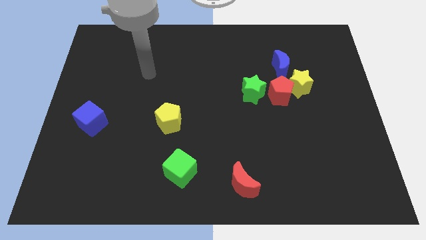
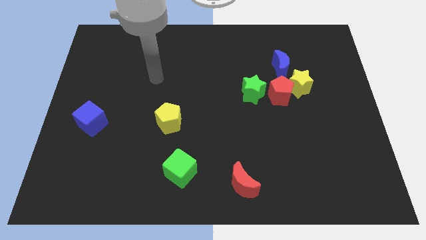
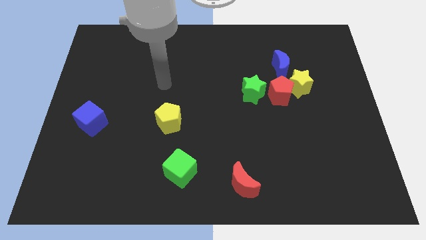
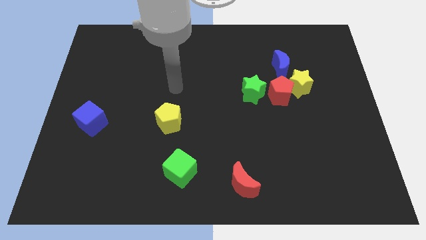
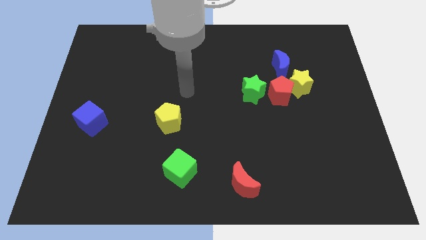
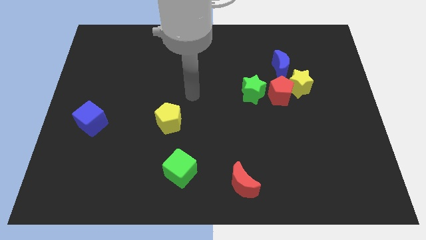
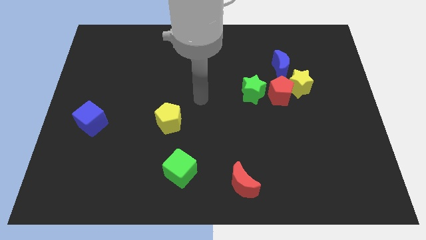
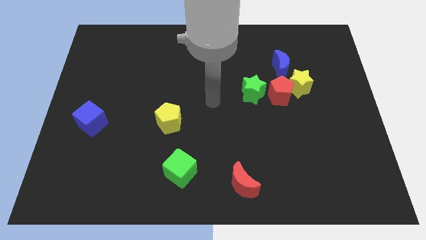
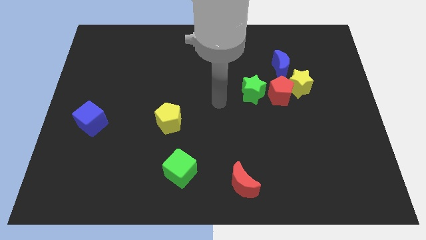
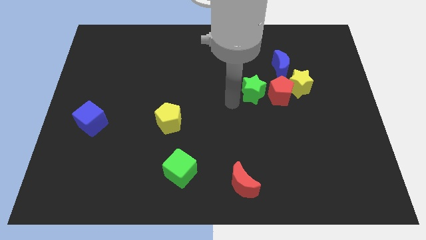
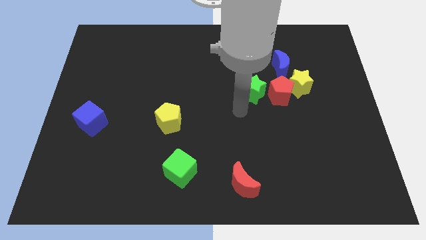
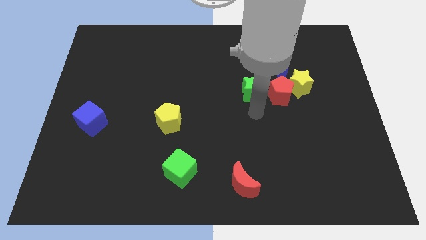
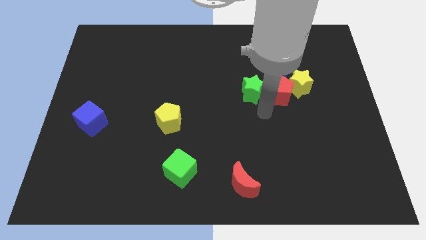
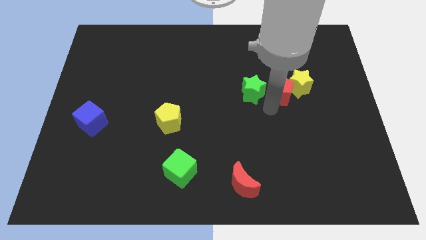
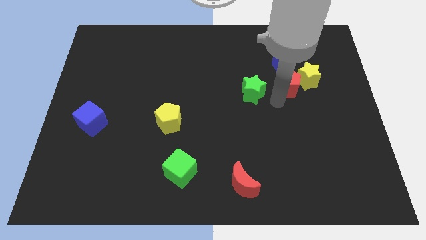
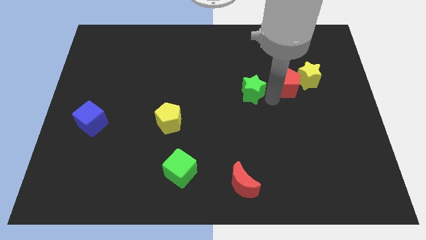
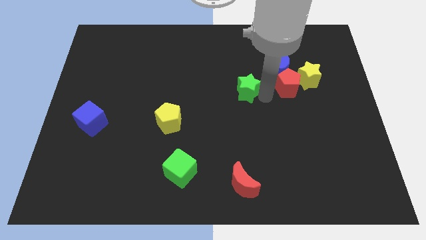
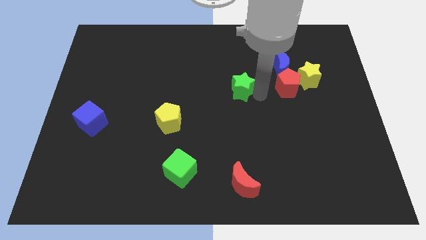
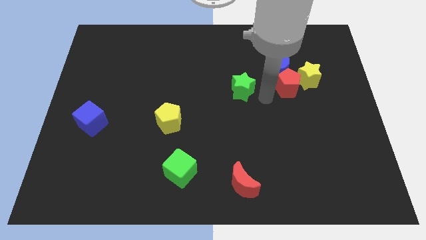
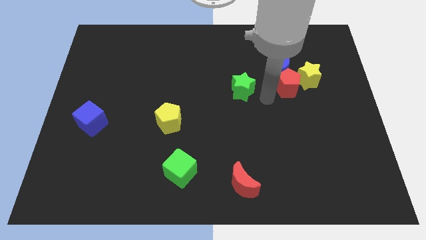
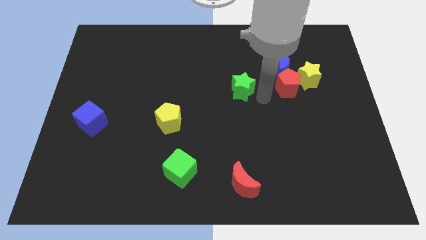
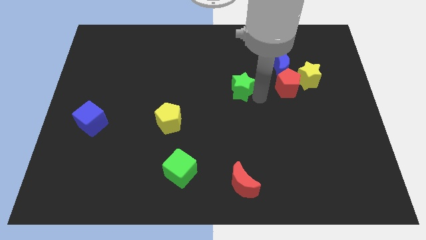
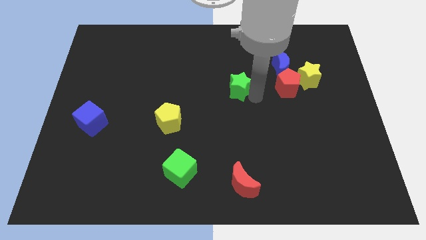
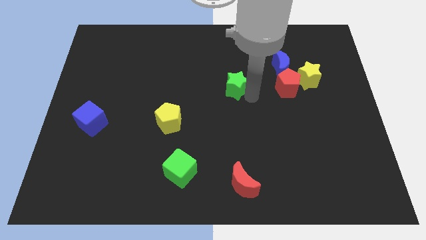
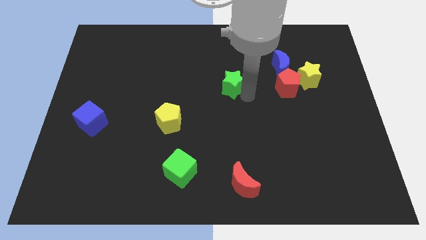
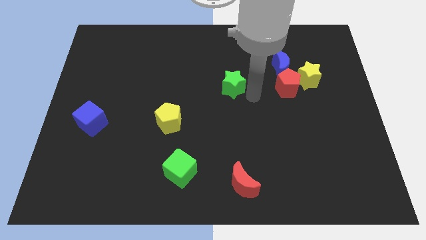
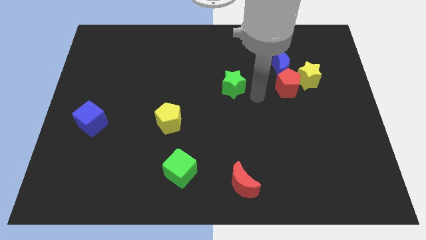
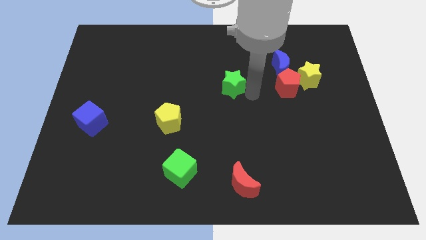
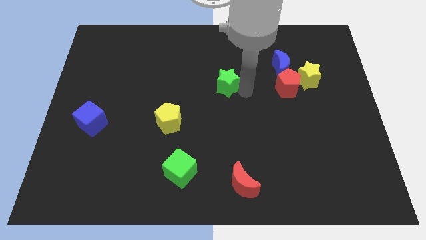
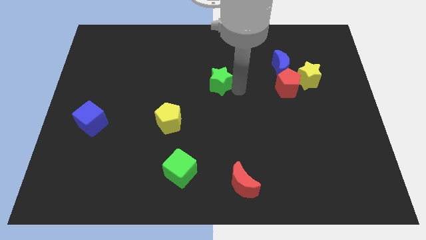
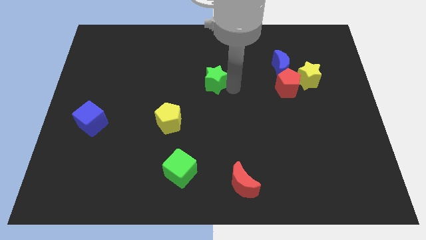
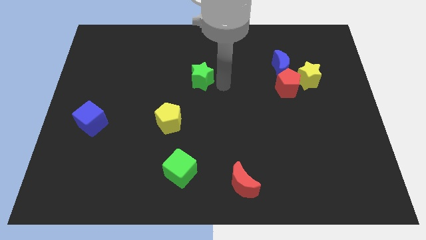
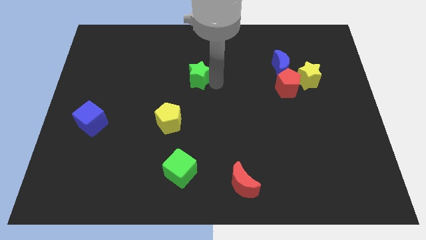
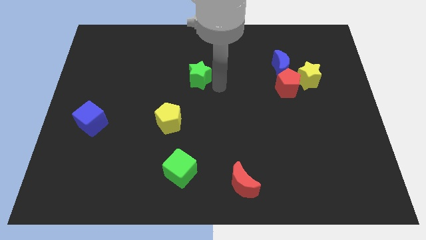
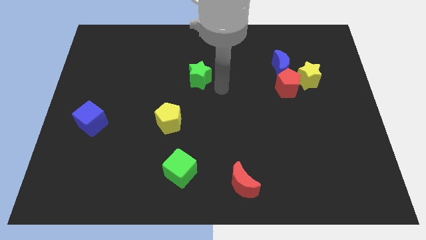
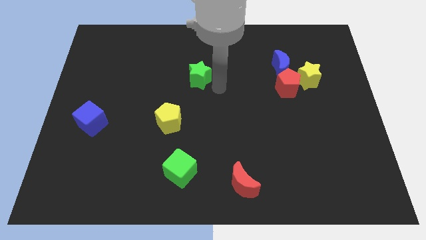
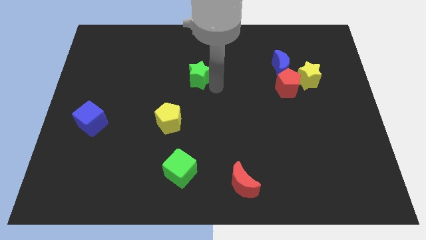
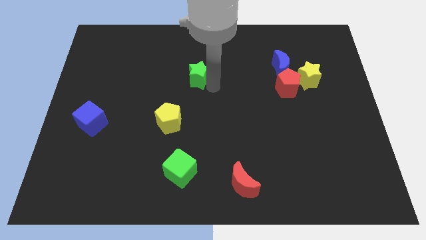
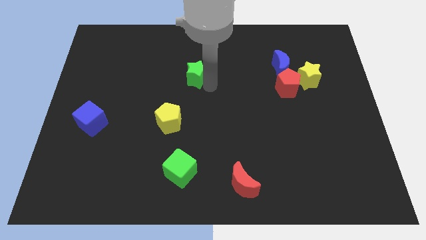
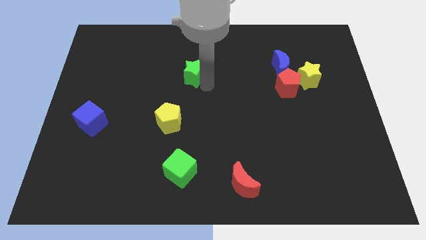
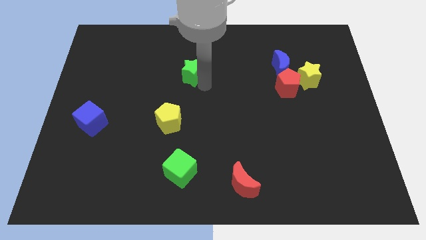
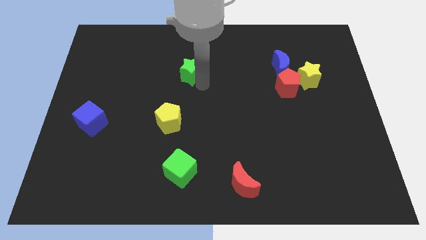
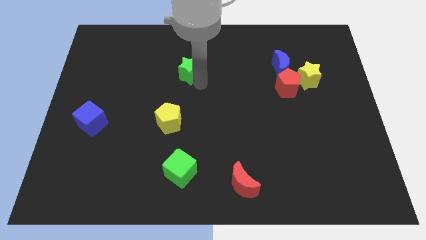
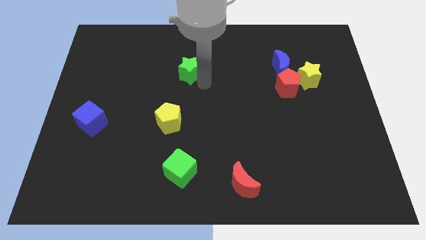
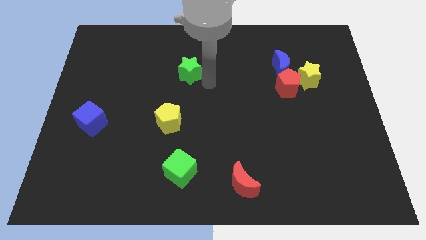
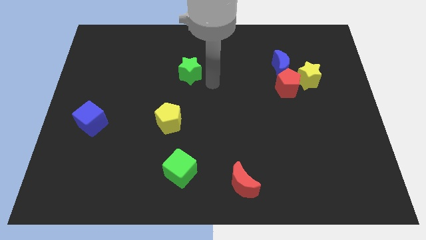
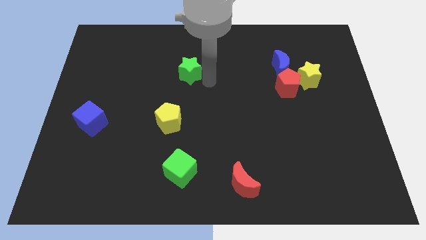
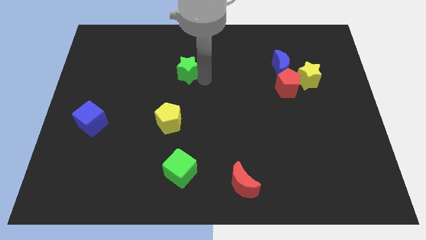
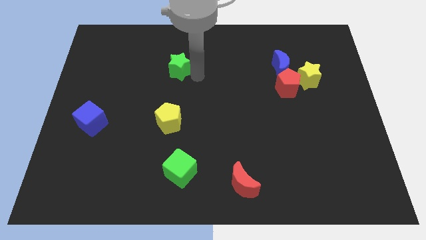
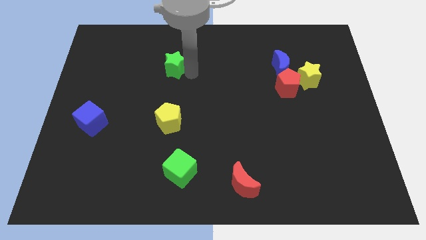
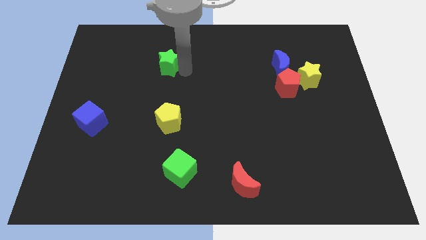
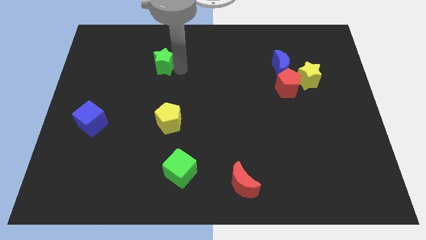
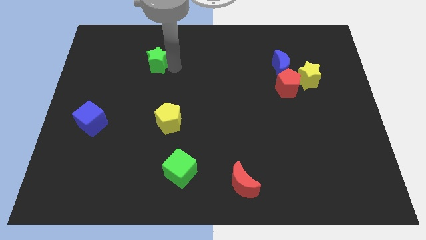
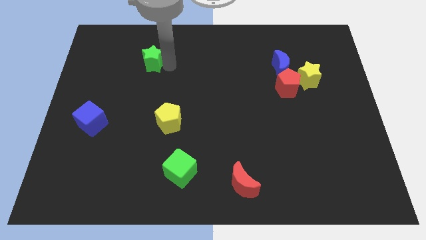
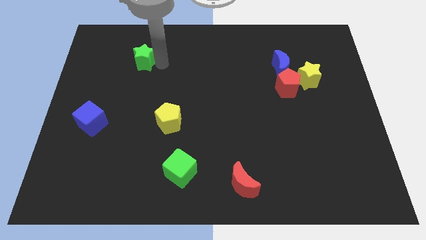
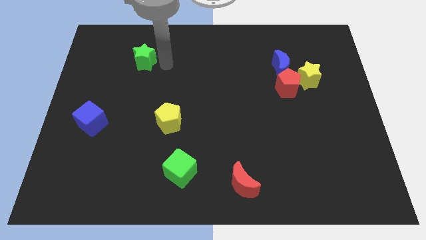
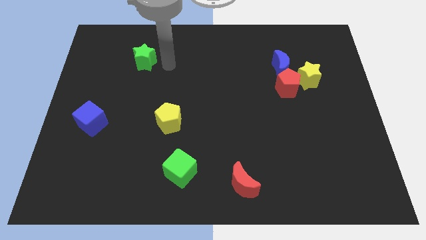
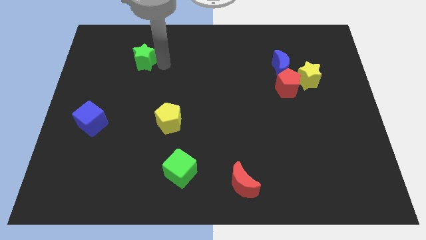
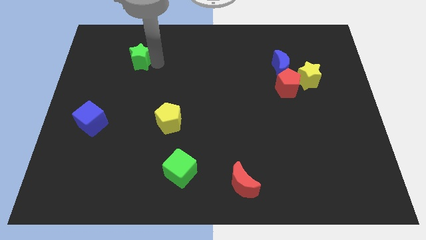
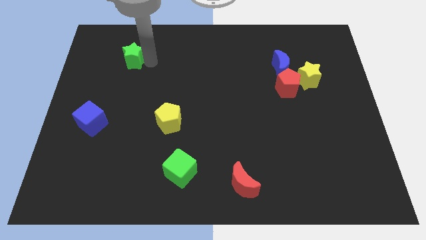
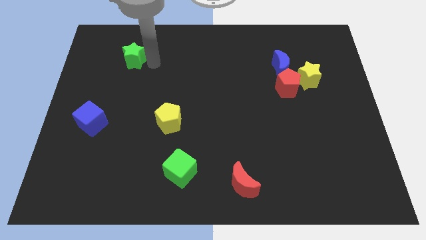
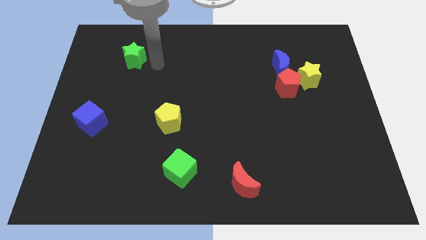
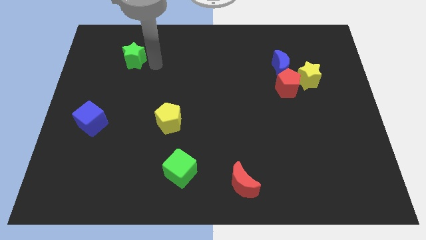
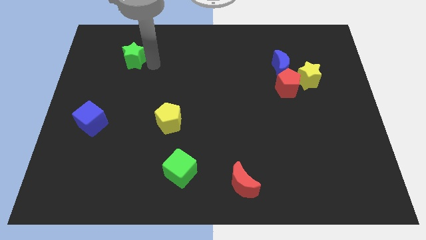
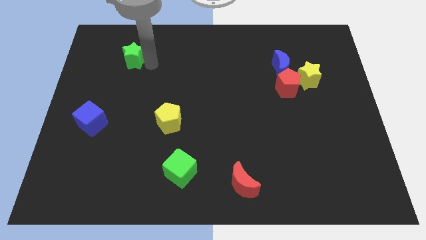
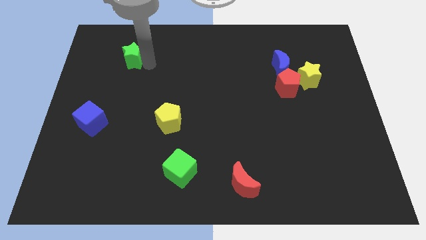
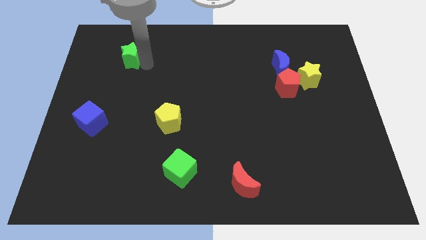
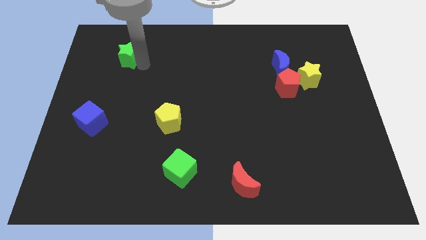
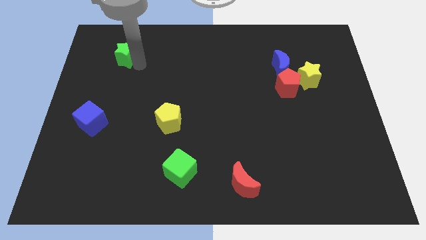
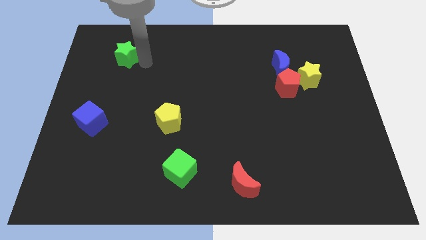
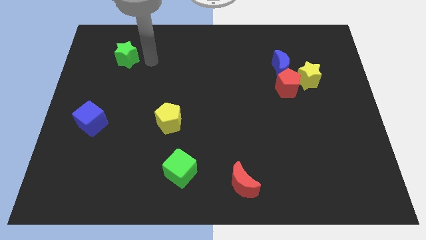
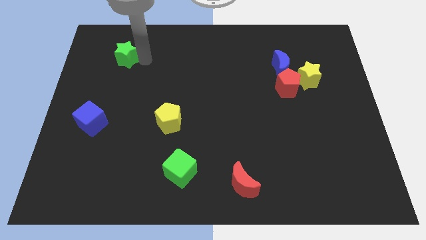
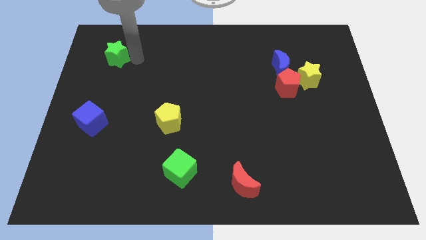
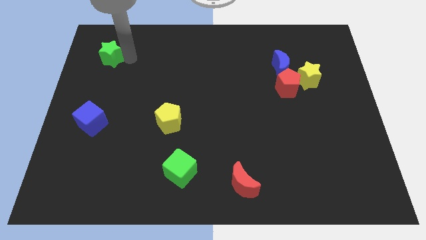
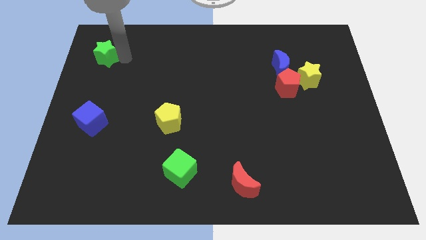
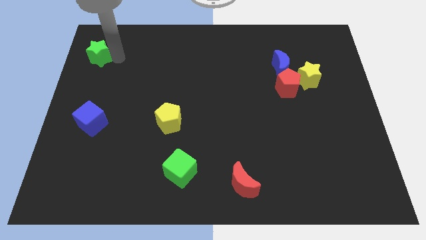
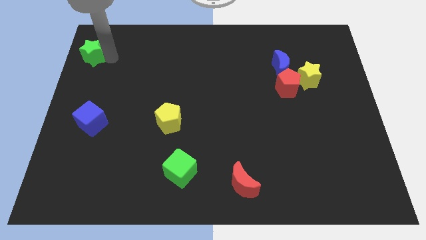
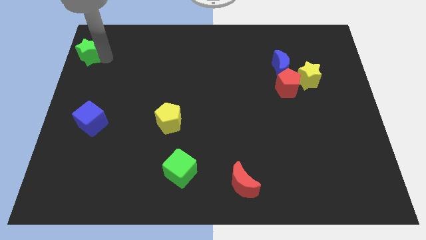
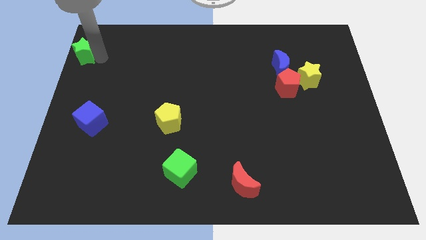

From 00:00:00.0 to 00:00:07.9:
slide the green star to the top left corner
